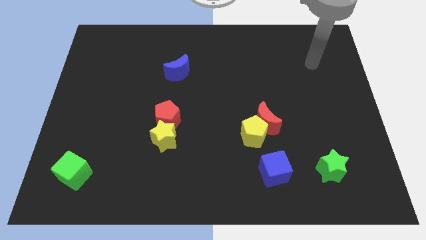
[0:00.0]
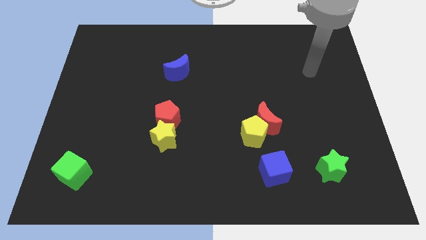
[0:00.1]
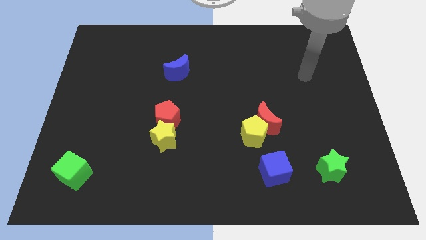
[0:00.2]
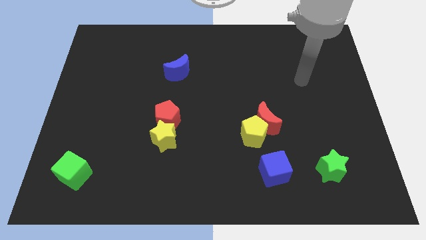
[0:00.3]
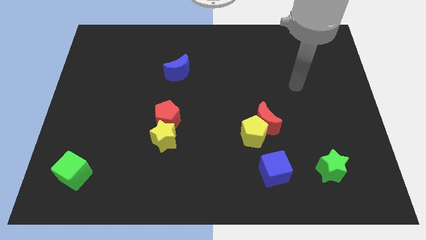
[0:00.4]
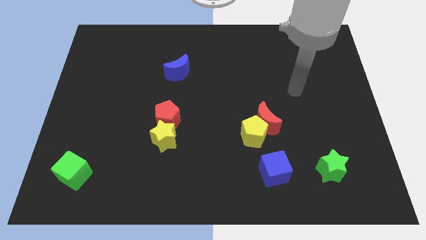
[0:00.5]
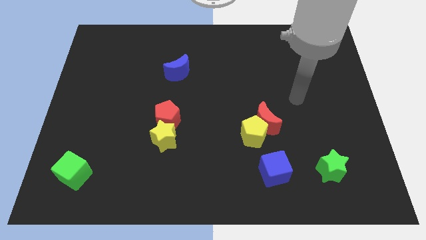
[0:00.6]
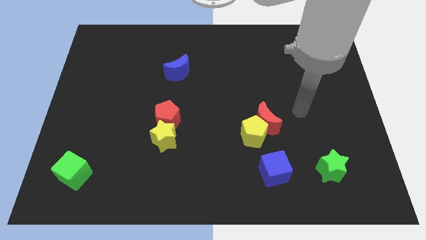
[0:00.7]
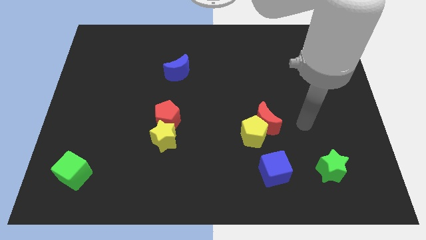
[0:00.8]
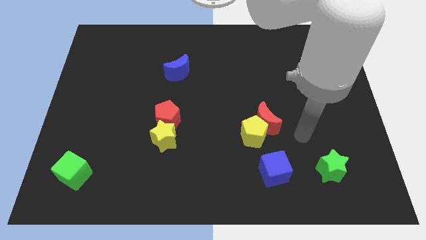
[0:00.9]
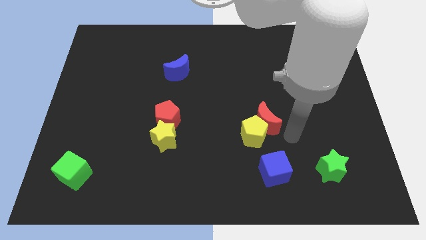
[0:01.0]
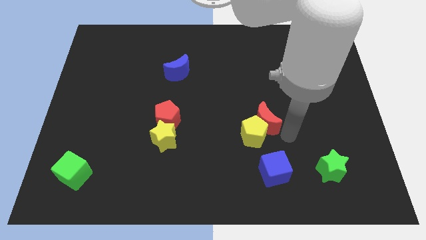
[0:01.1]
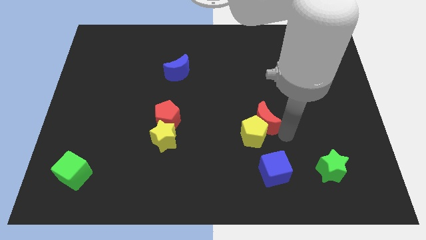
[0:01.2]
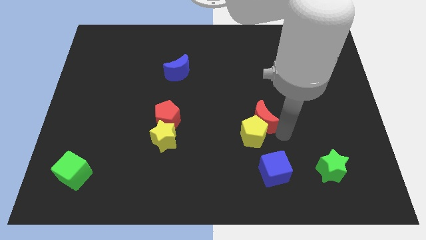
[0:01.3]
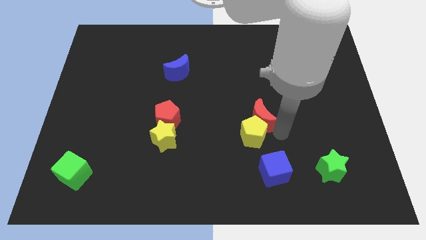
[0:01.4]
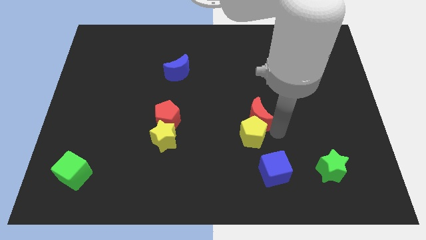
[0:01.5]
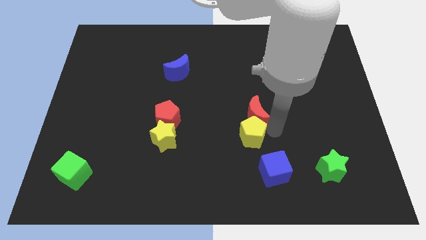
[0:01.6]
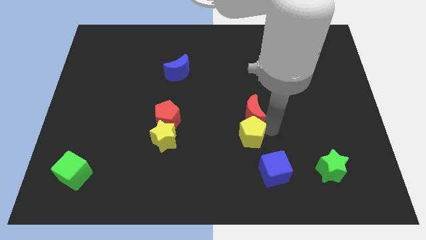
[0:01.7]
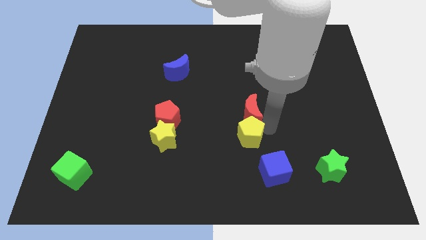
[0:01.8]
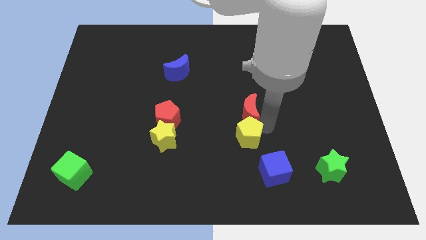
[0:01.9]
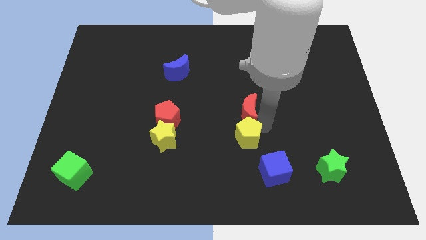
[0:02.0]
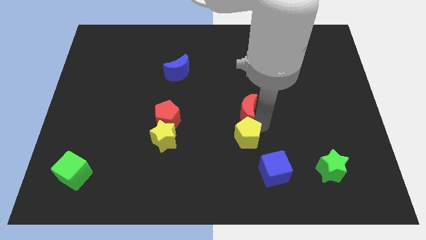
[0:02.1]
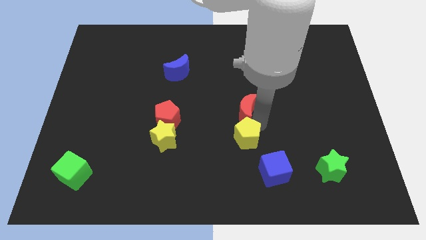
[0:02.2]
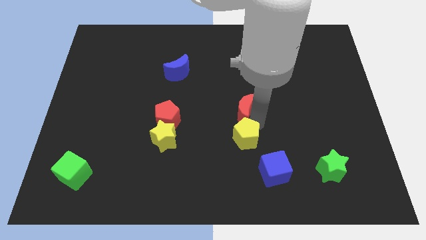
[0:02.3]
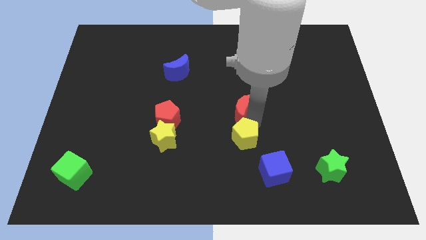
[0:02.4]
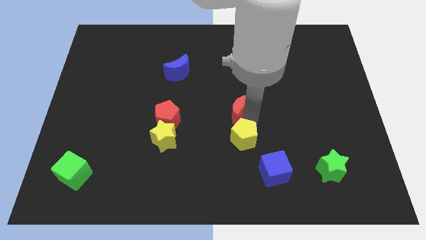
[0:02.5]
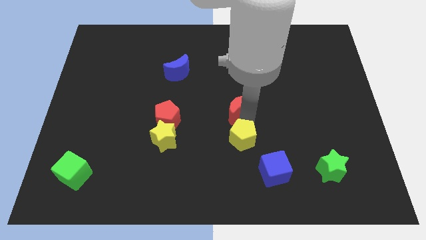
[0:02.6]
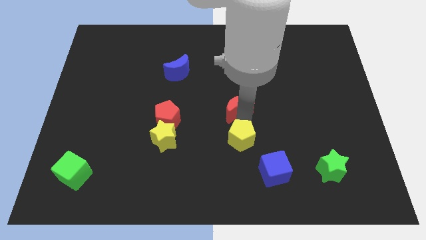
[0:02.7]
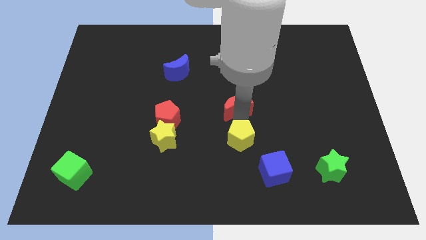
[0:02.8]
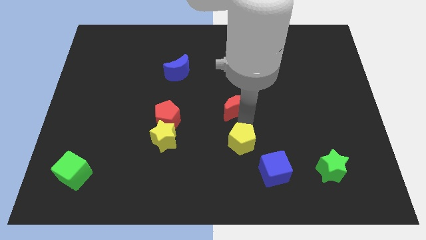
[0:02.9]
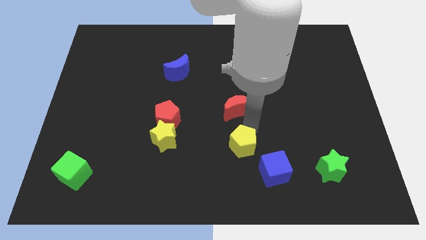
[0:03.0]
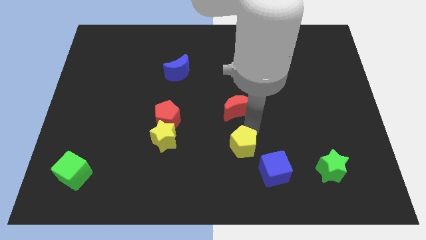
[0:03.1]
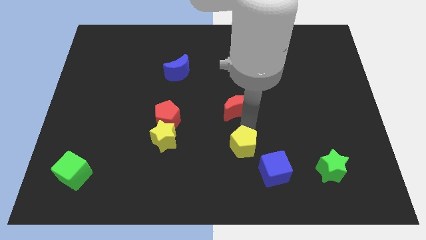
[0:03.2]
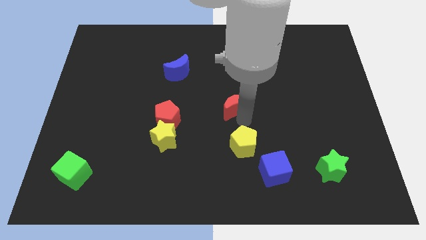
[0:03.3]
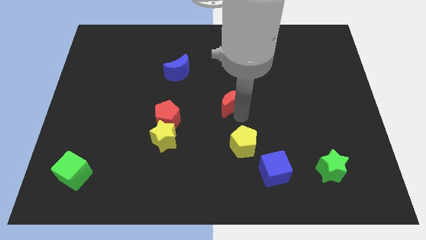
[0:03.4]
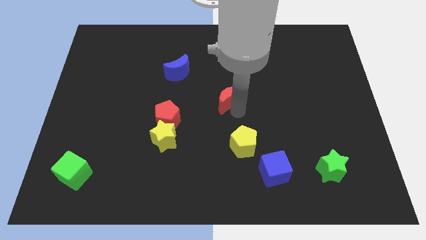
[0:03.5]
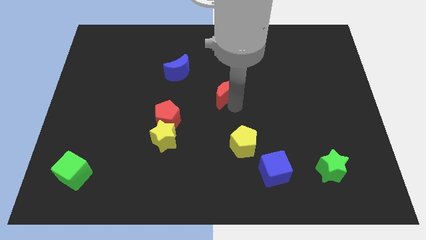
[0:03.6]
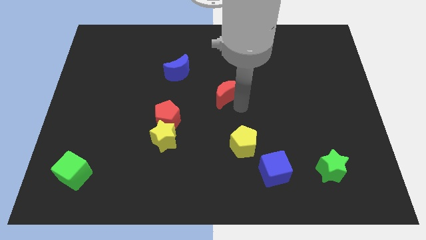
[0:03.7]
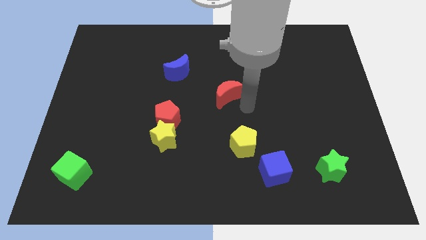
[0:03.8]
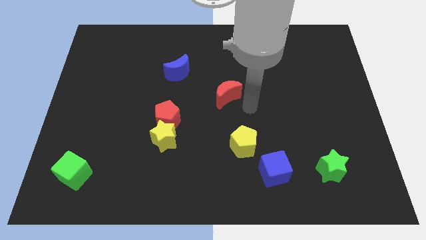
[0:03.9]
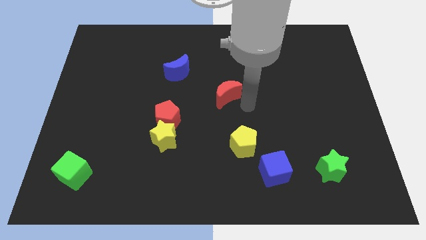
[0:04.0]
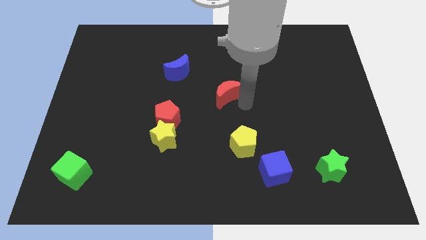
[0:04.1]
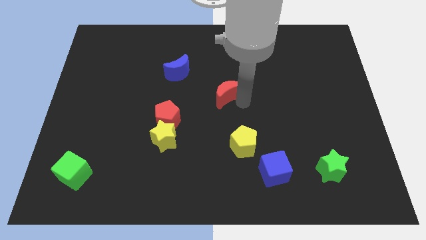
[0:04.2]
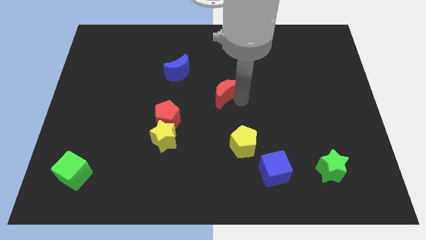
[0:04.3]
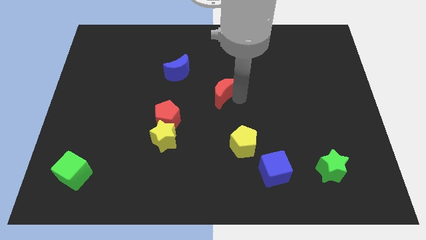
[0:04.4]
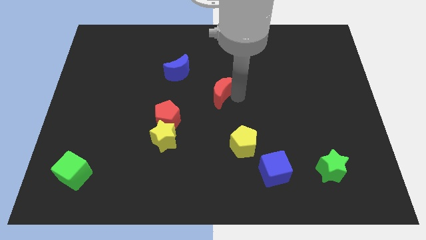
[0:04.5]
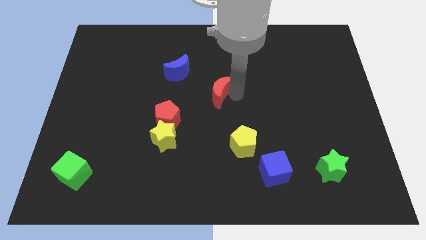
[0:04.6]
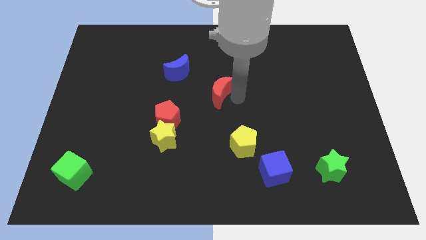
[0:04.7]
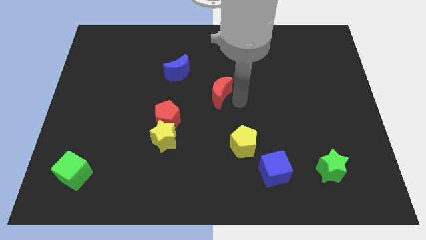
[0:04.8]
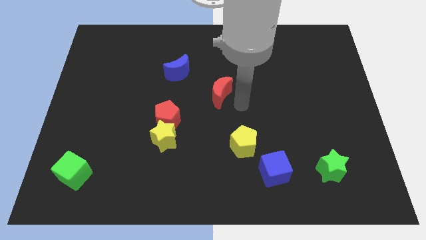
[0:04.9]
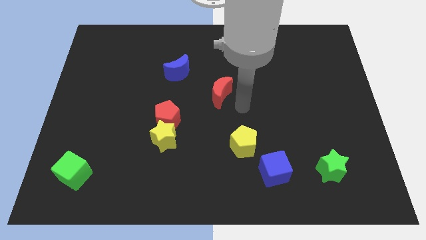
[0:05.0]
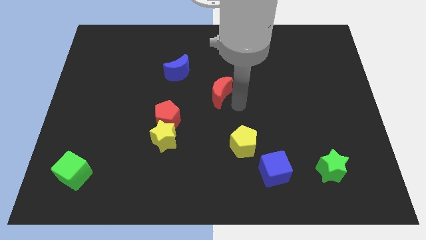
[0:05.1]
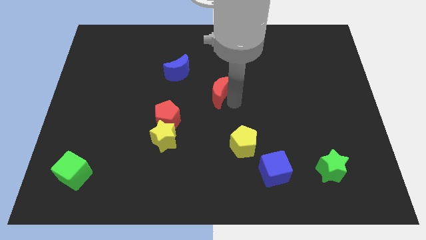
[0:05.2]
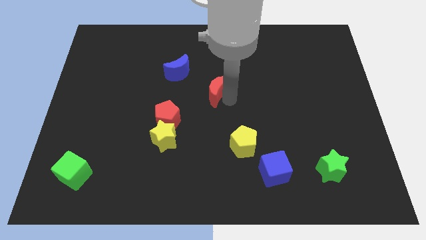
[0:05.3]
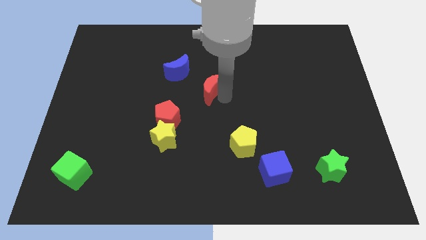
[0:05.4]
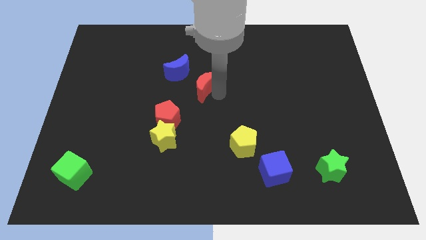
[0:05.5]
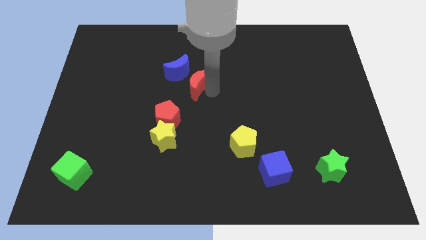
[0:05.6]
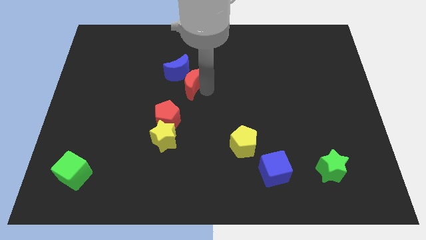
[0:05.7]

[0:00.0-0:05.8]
push the red moon next to the blue moon
